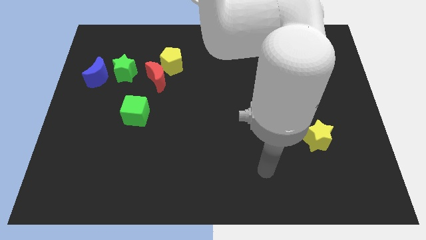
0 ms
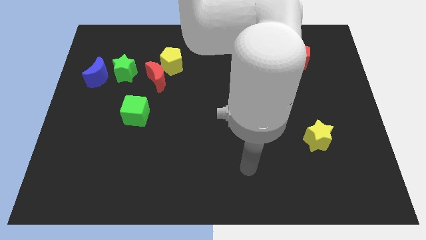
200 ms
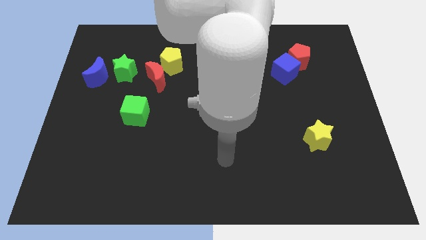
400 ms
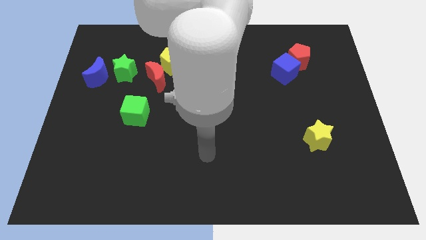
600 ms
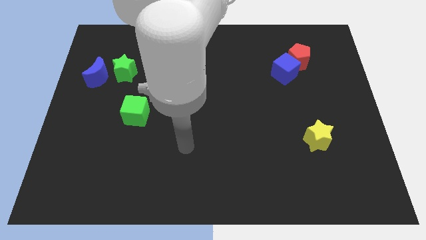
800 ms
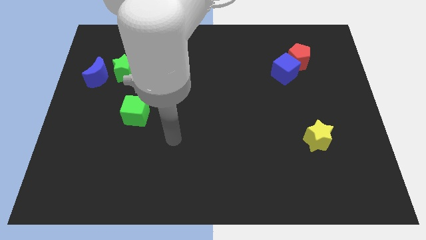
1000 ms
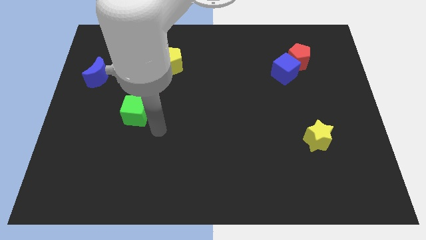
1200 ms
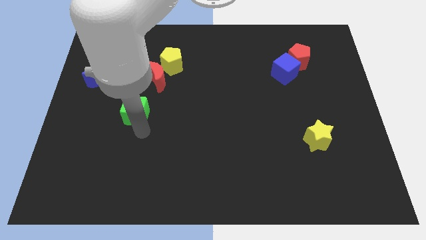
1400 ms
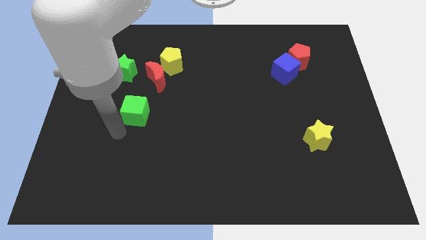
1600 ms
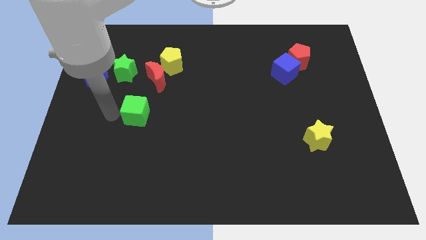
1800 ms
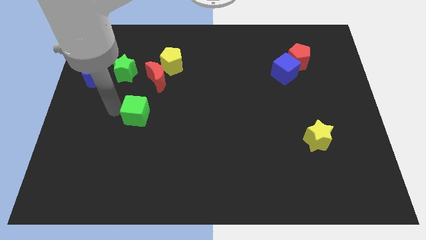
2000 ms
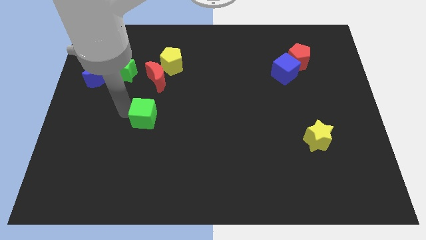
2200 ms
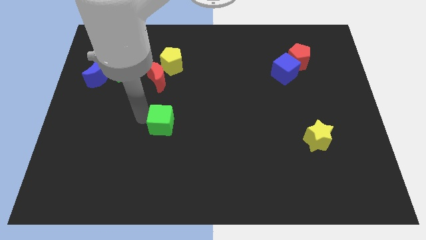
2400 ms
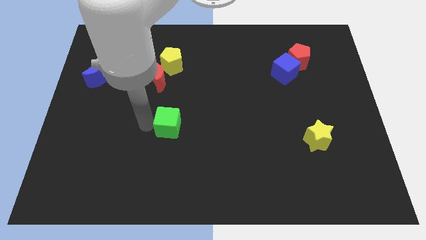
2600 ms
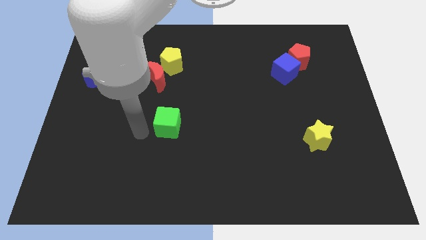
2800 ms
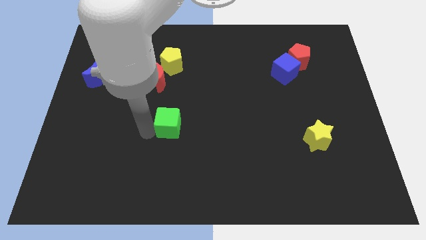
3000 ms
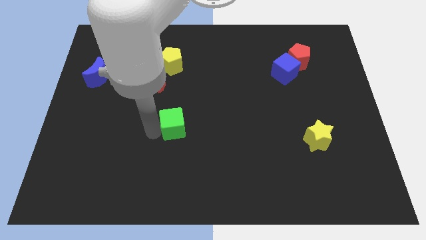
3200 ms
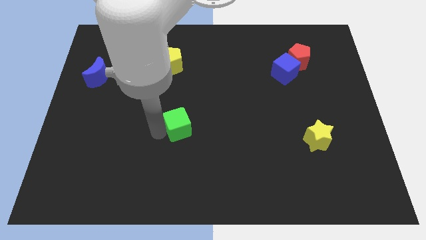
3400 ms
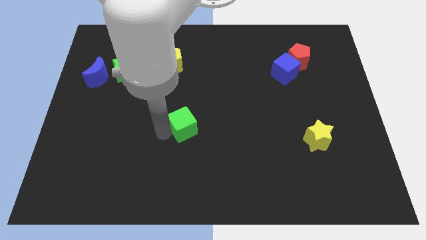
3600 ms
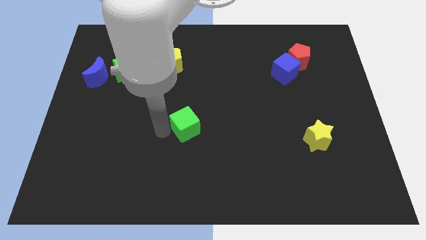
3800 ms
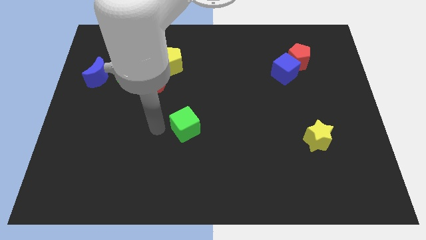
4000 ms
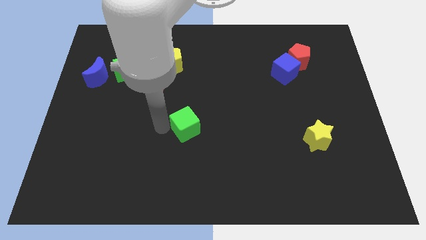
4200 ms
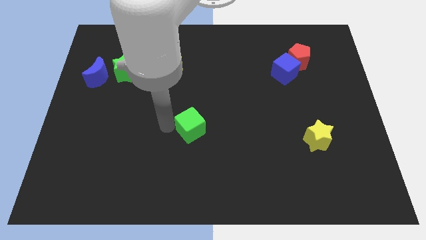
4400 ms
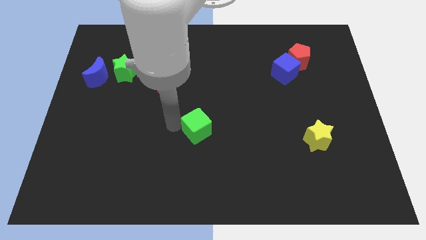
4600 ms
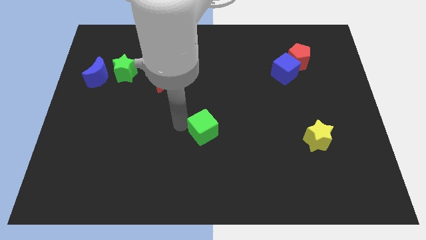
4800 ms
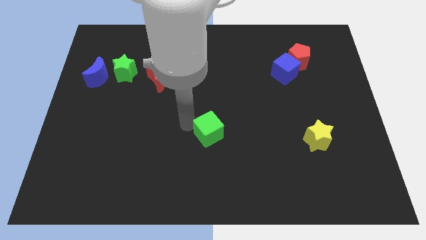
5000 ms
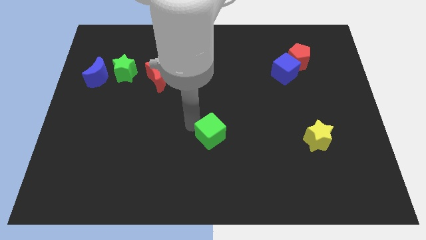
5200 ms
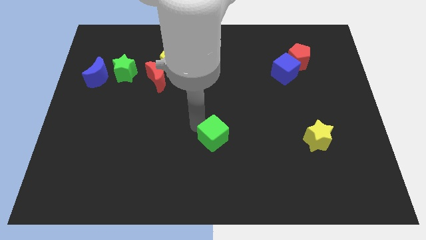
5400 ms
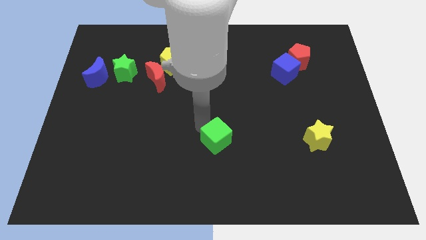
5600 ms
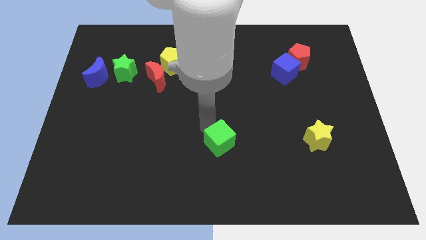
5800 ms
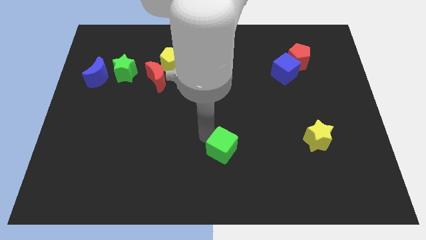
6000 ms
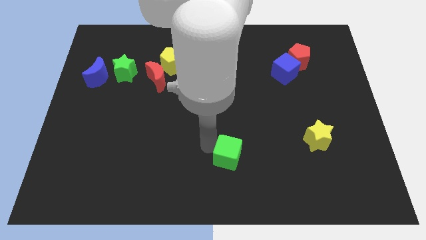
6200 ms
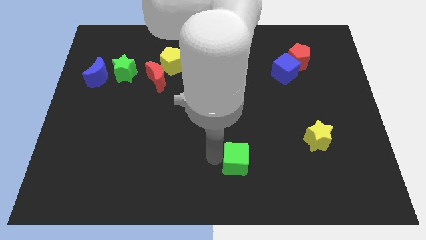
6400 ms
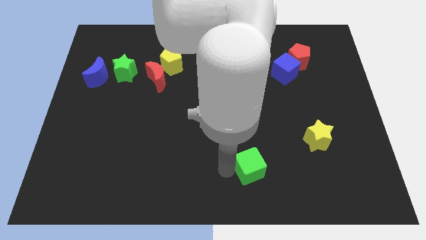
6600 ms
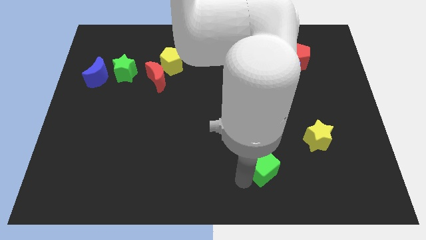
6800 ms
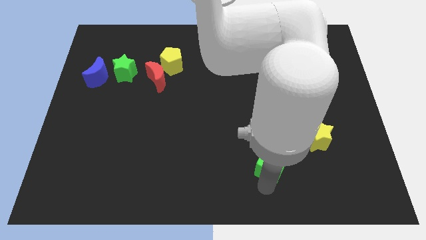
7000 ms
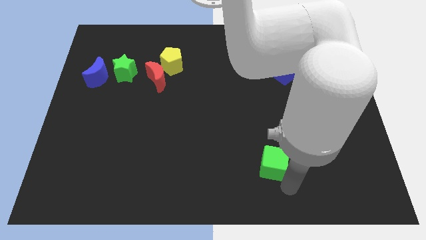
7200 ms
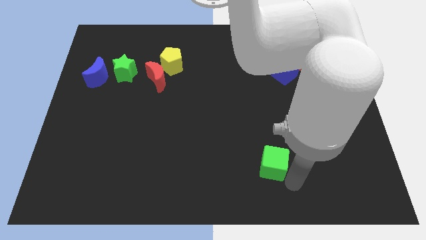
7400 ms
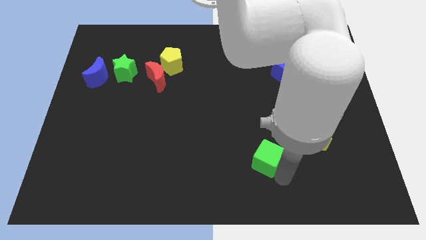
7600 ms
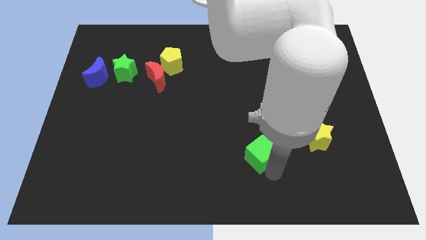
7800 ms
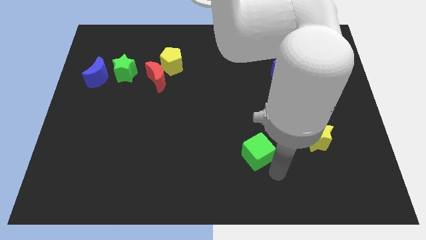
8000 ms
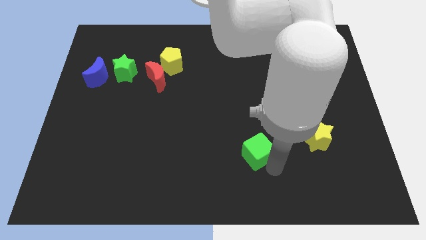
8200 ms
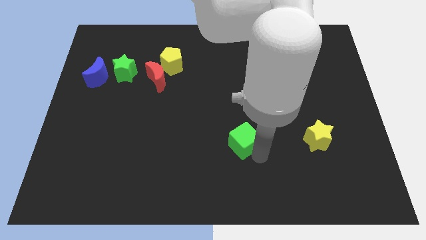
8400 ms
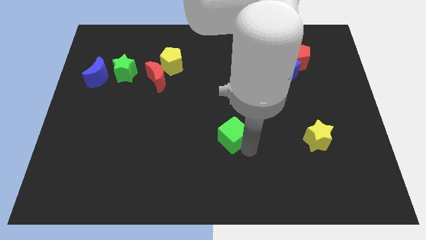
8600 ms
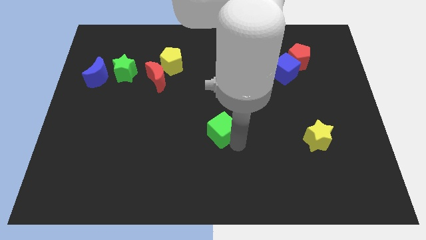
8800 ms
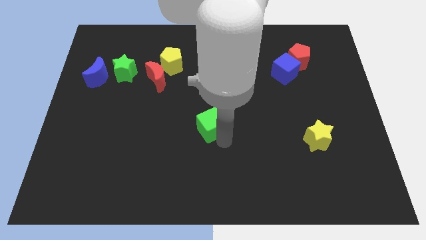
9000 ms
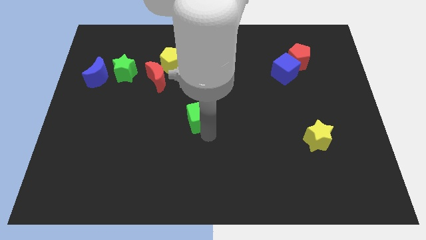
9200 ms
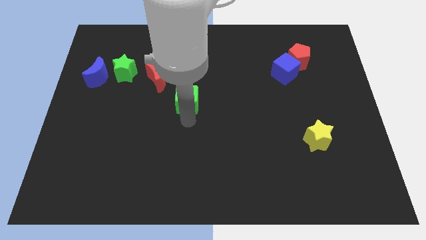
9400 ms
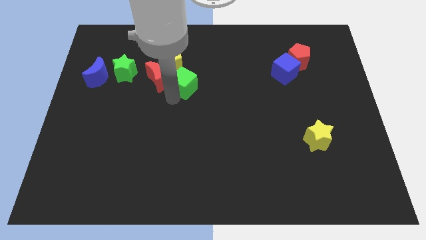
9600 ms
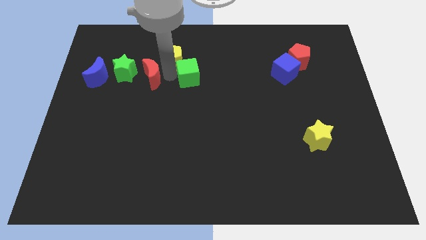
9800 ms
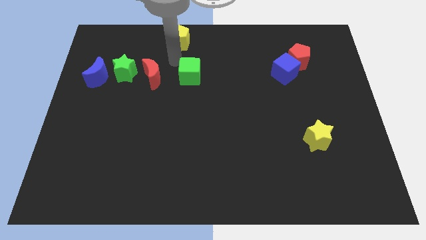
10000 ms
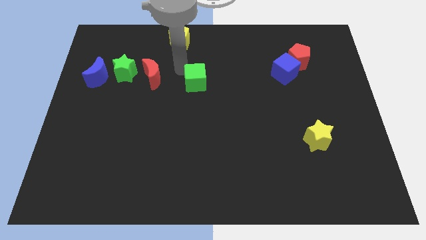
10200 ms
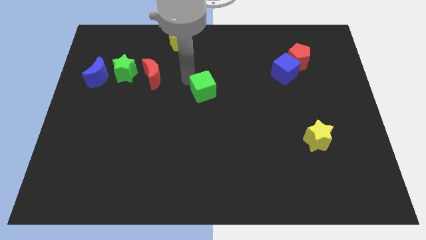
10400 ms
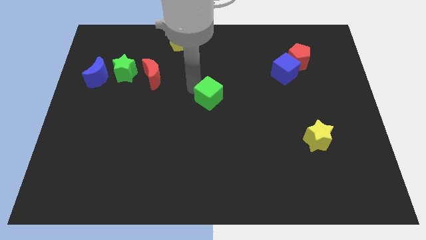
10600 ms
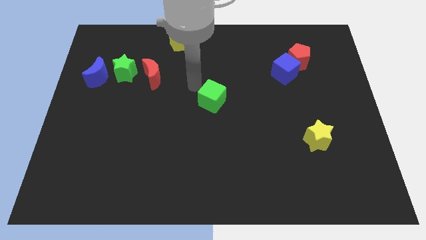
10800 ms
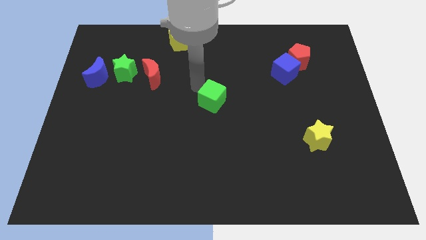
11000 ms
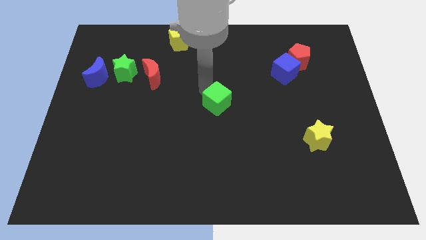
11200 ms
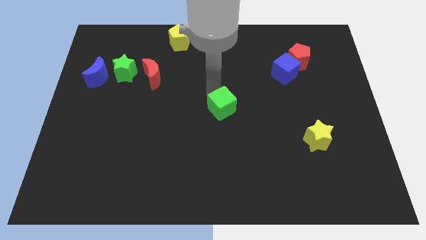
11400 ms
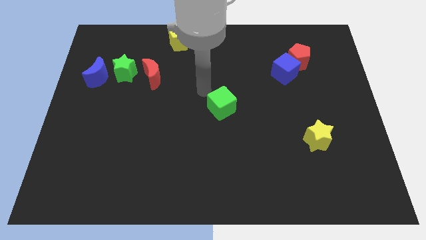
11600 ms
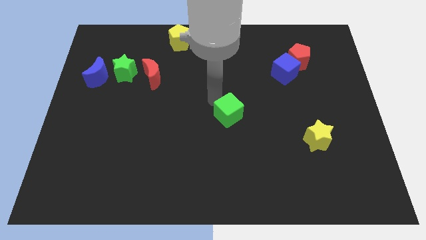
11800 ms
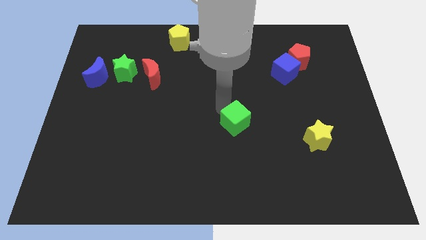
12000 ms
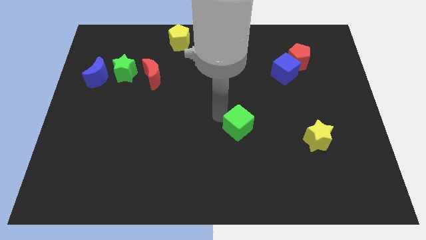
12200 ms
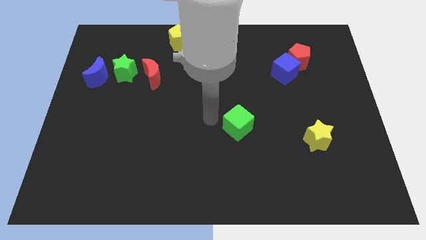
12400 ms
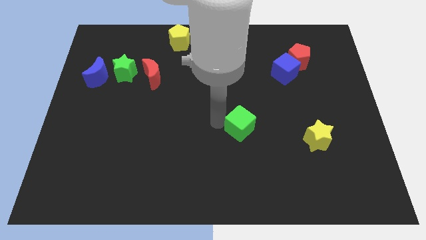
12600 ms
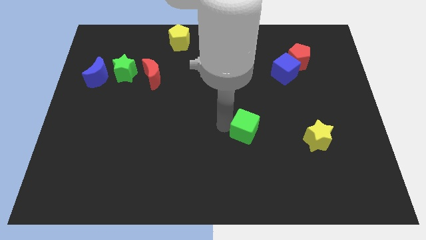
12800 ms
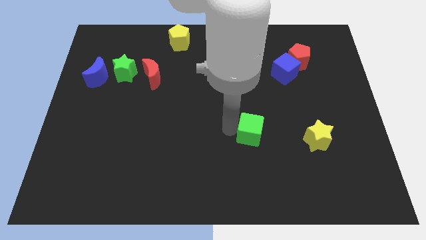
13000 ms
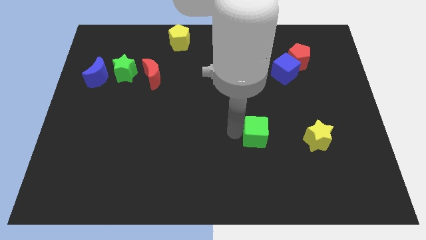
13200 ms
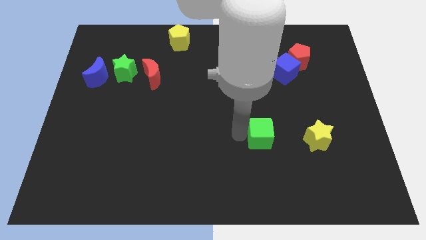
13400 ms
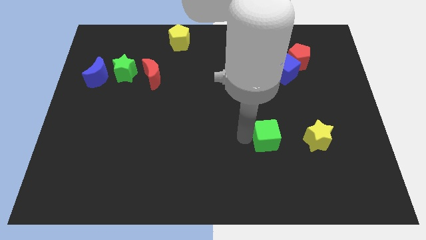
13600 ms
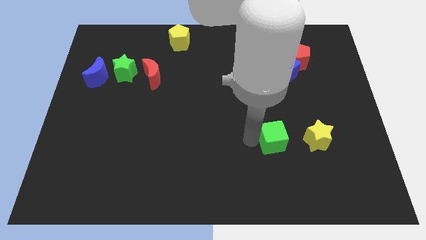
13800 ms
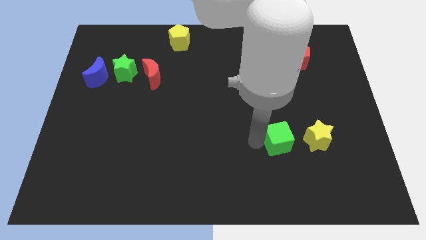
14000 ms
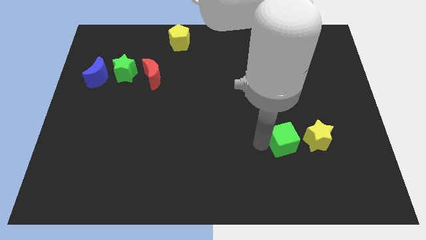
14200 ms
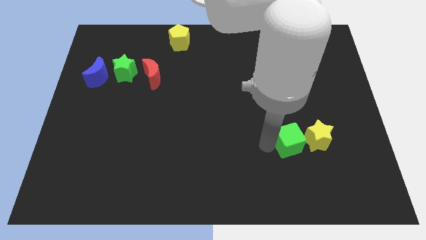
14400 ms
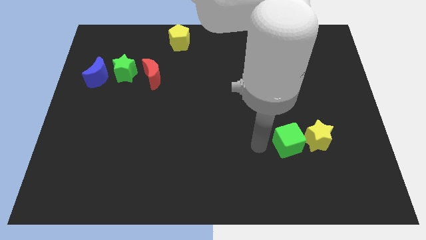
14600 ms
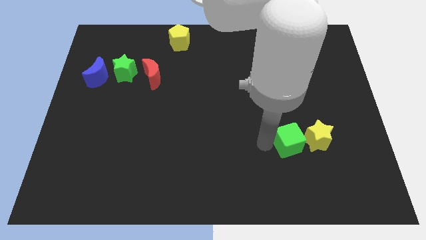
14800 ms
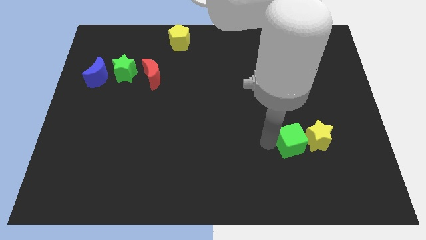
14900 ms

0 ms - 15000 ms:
move the green cube close to the yellow star

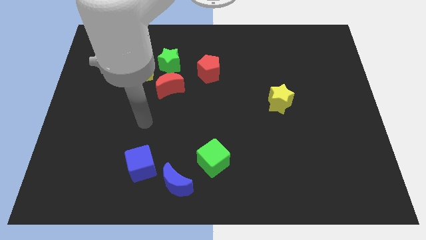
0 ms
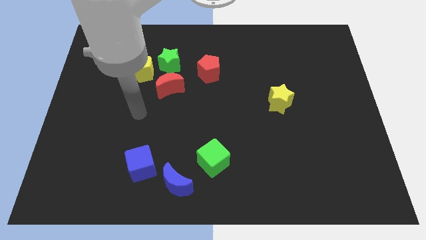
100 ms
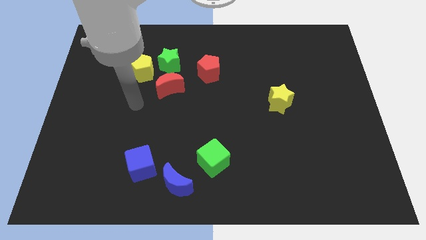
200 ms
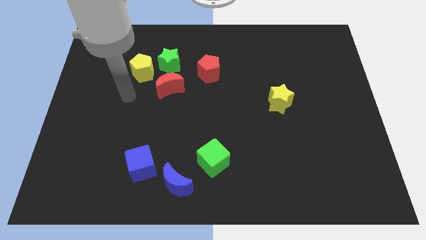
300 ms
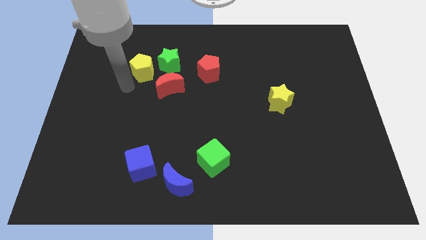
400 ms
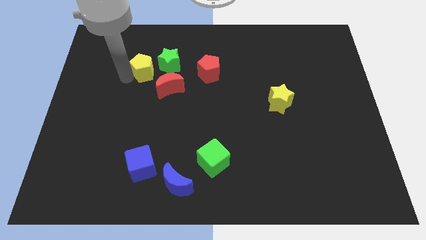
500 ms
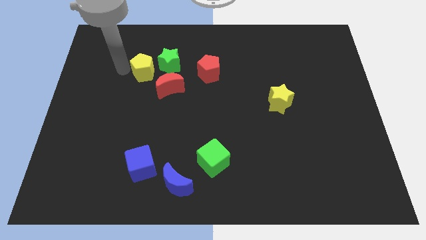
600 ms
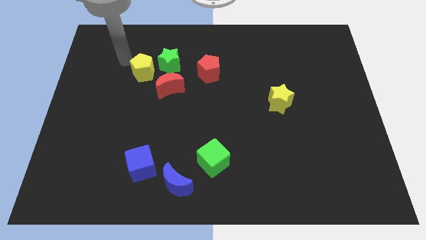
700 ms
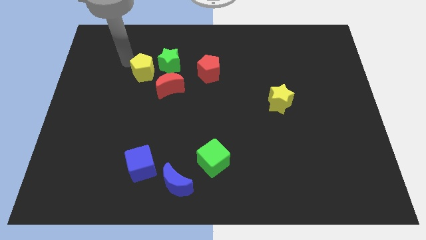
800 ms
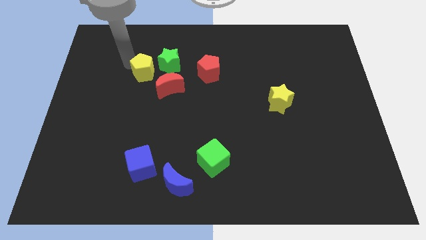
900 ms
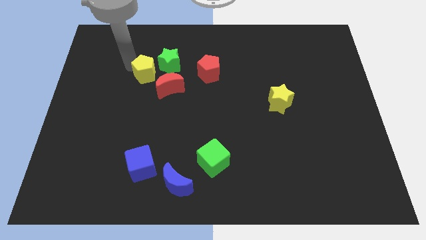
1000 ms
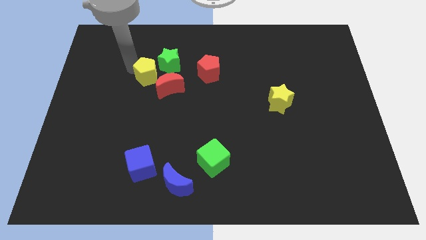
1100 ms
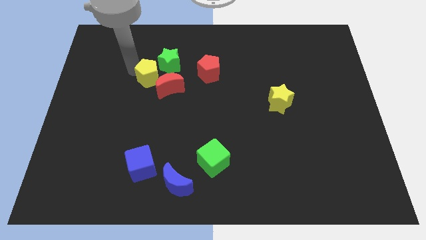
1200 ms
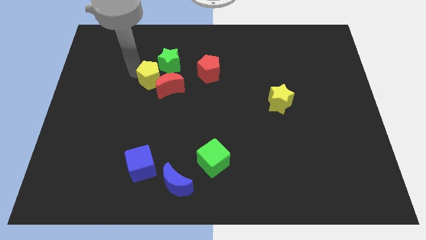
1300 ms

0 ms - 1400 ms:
push the yellow pentagon towards the red moon

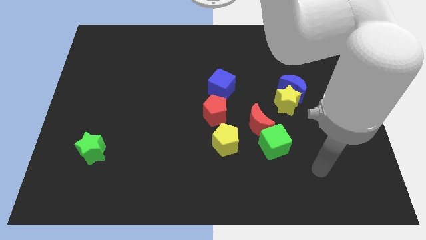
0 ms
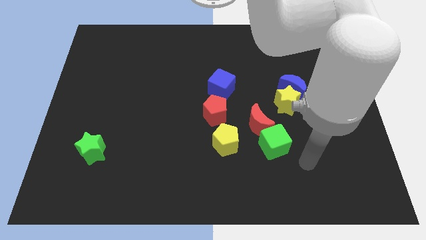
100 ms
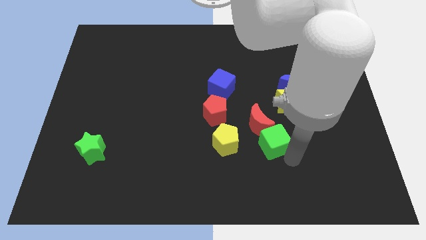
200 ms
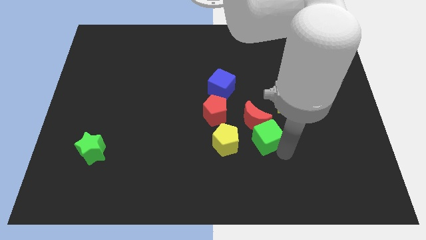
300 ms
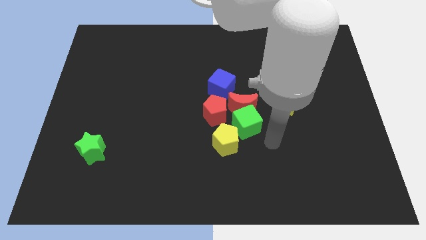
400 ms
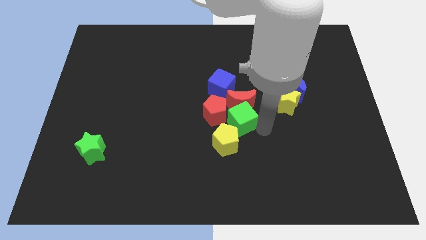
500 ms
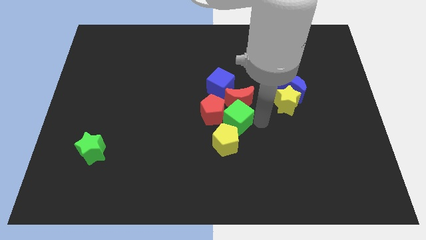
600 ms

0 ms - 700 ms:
move the red moon next to the blue cube
